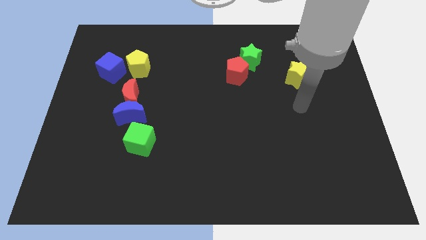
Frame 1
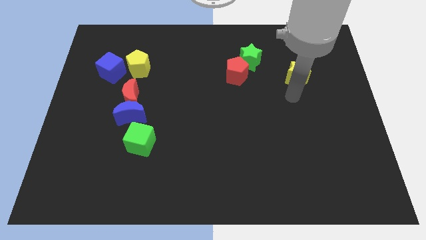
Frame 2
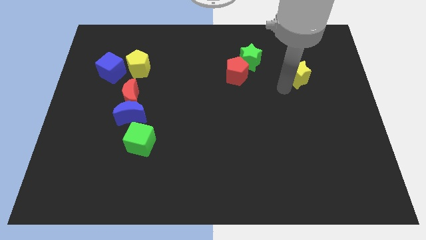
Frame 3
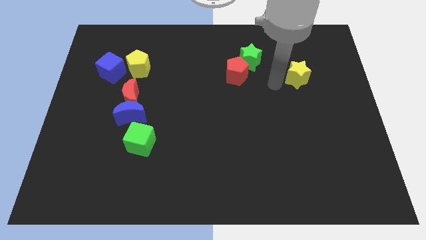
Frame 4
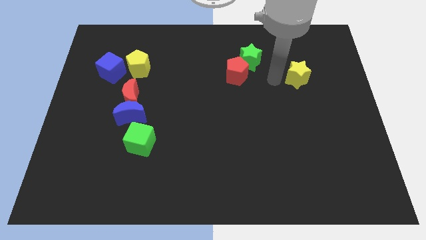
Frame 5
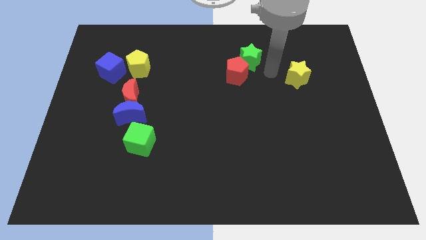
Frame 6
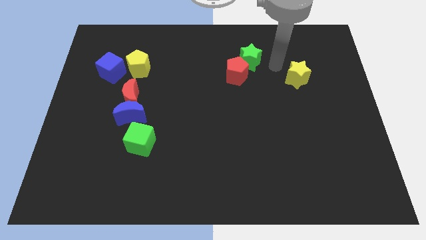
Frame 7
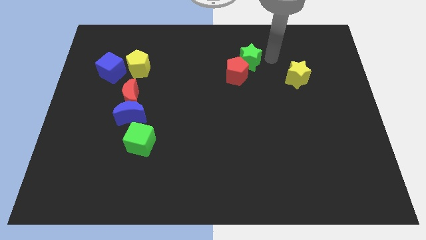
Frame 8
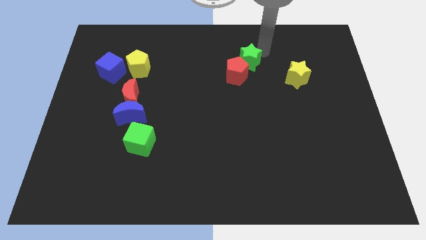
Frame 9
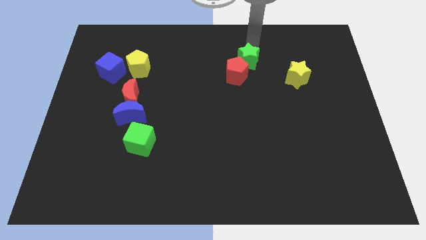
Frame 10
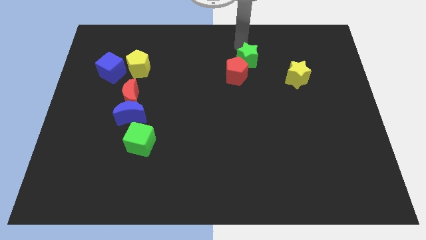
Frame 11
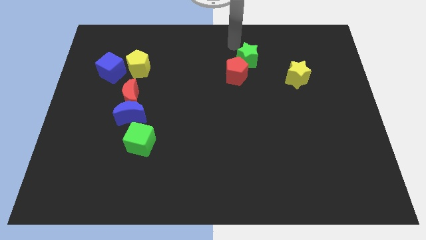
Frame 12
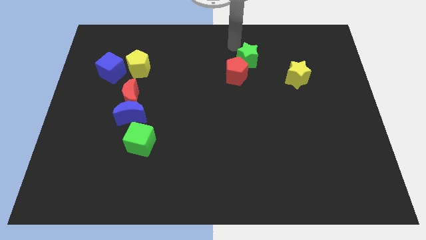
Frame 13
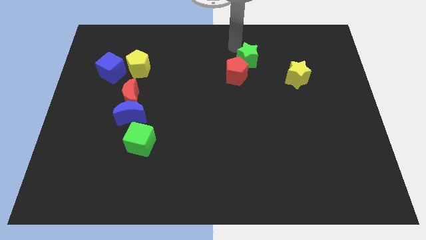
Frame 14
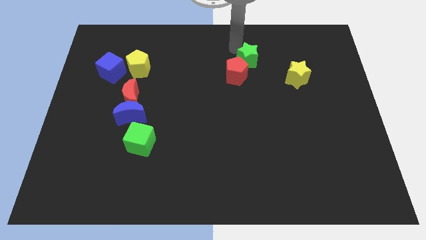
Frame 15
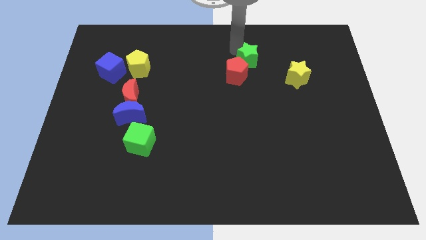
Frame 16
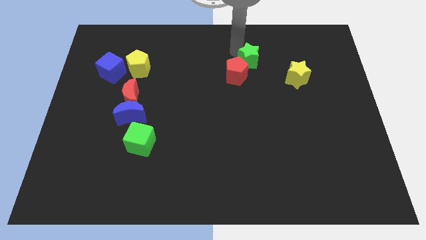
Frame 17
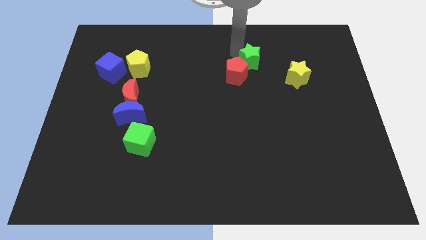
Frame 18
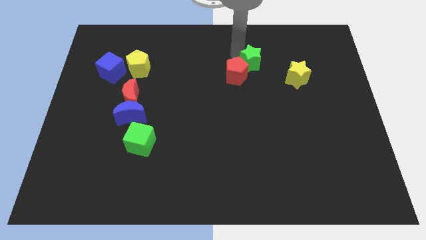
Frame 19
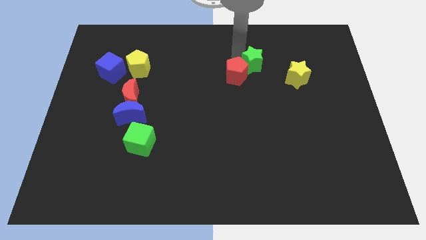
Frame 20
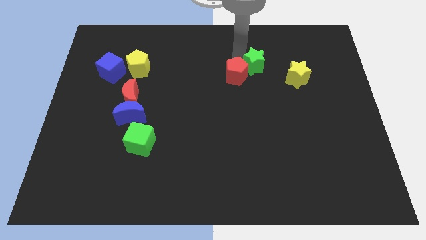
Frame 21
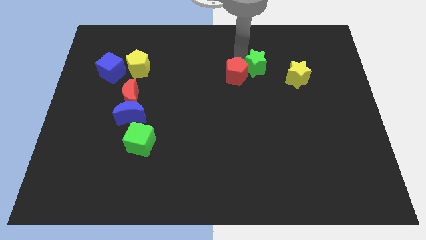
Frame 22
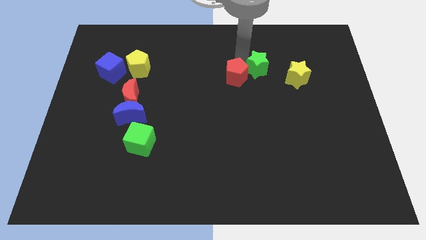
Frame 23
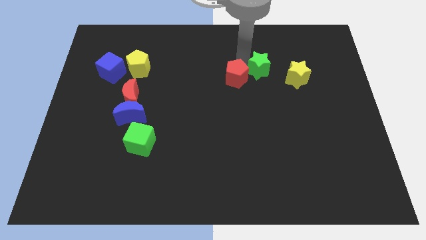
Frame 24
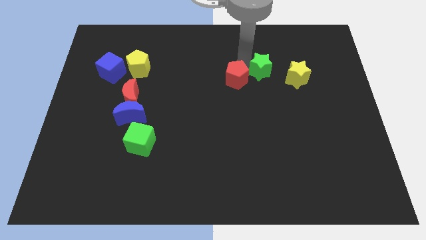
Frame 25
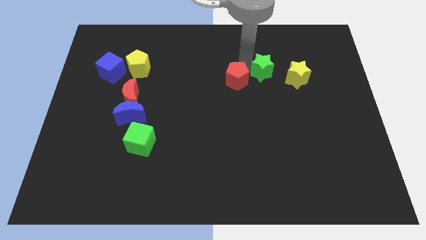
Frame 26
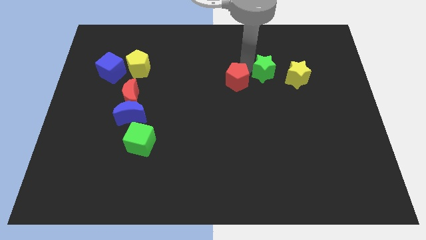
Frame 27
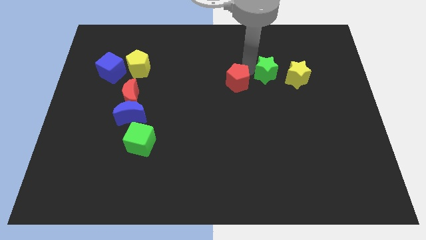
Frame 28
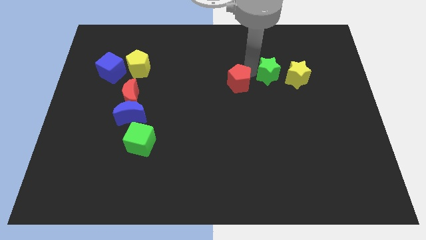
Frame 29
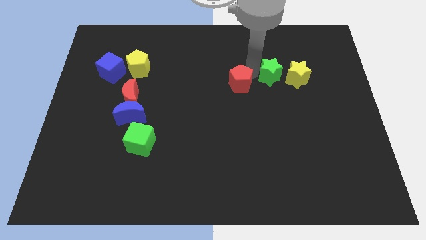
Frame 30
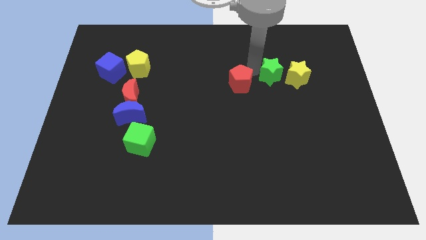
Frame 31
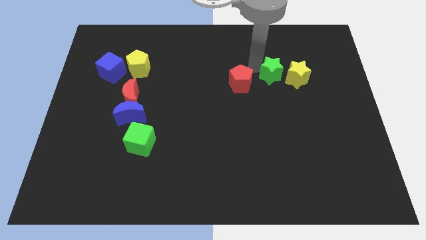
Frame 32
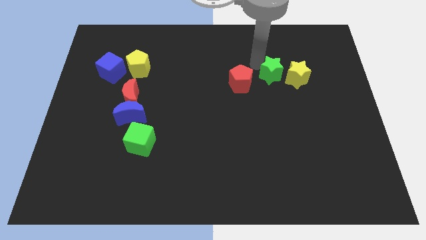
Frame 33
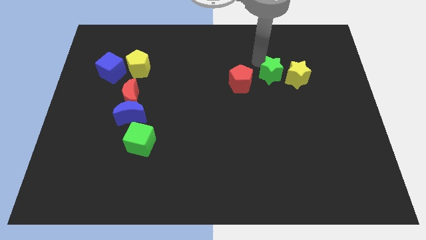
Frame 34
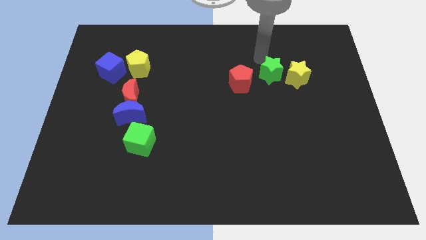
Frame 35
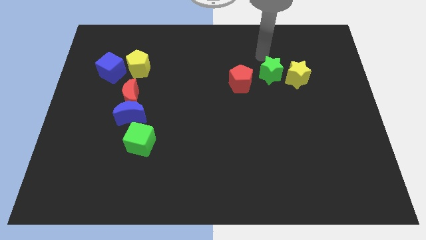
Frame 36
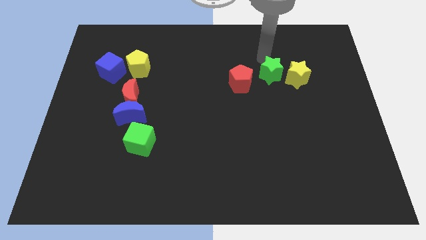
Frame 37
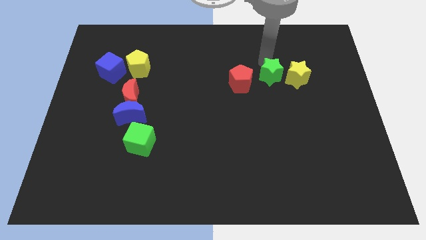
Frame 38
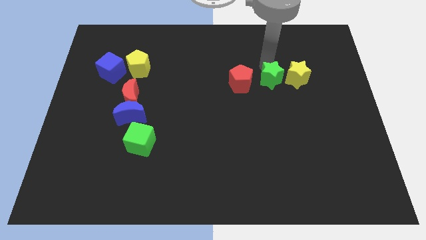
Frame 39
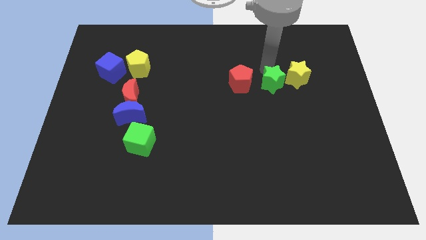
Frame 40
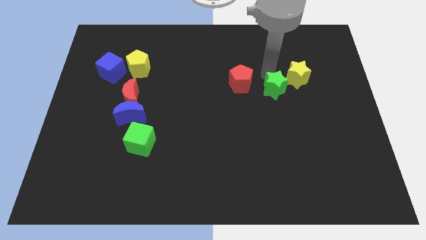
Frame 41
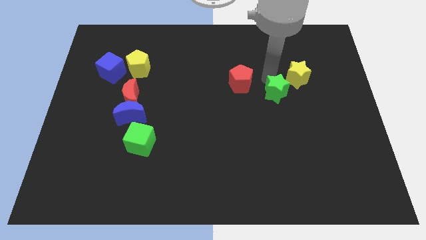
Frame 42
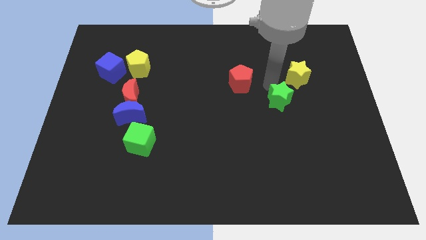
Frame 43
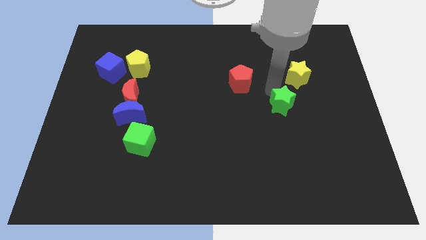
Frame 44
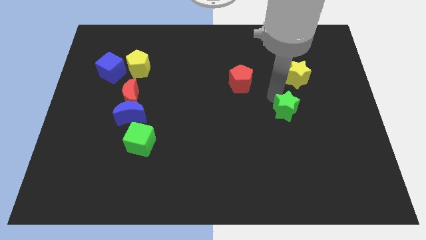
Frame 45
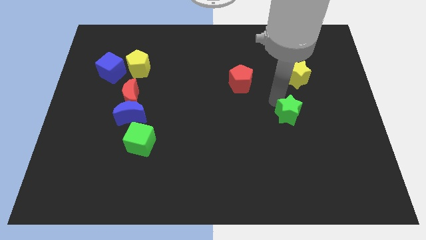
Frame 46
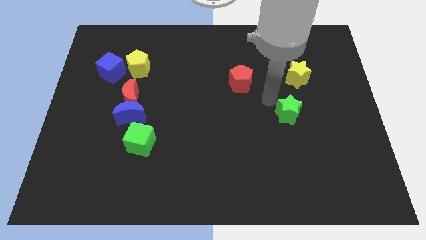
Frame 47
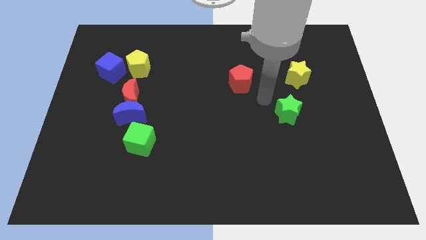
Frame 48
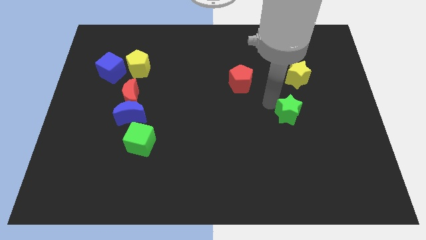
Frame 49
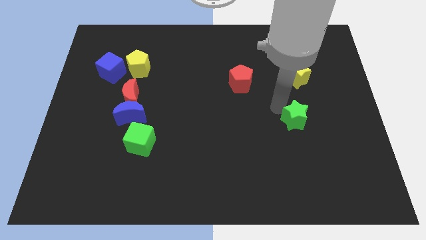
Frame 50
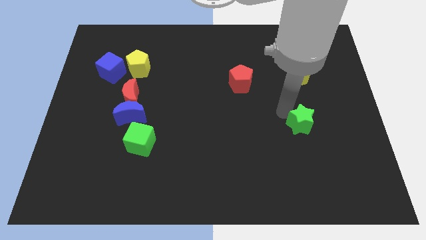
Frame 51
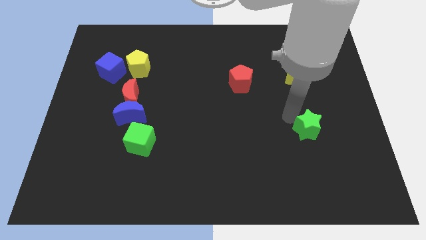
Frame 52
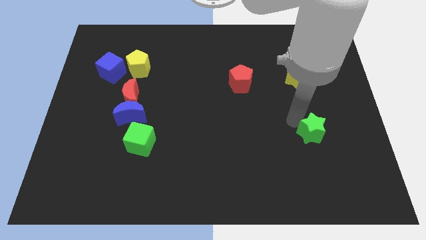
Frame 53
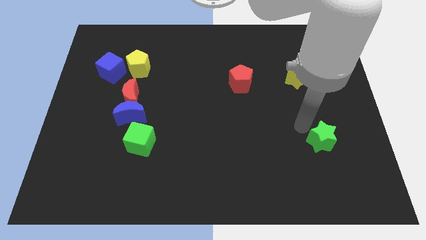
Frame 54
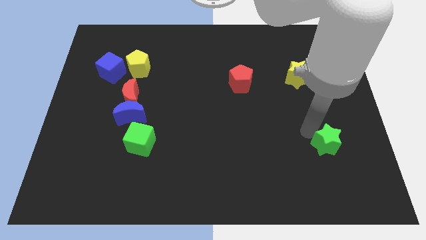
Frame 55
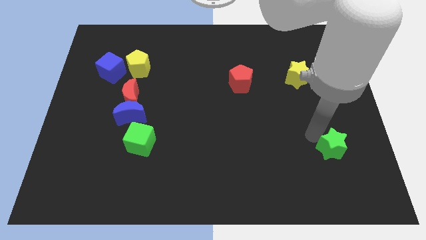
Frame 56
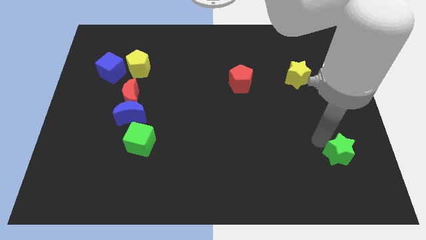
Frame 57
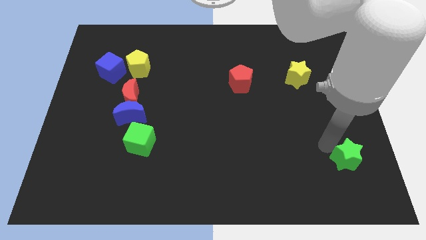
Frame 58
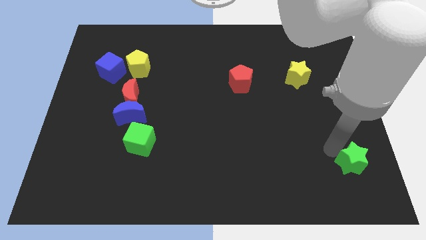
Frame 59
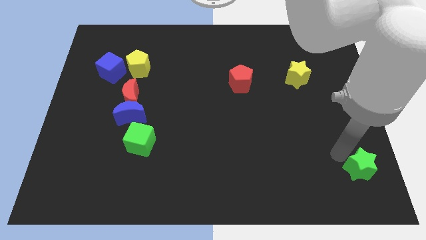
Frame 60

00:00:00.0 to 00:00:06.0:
move the green star to the bottom right

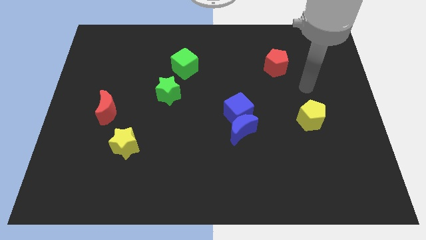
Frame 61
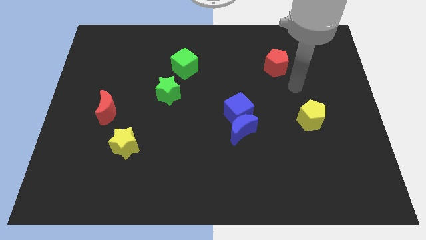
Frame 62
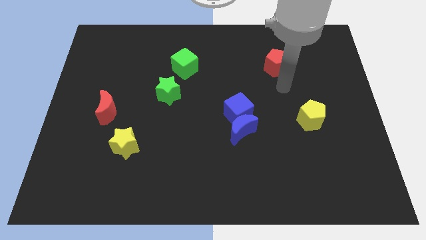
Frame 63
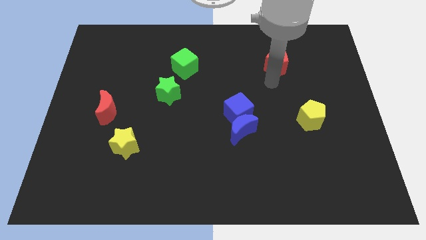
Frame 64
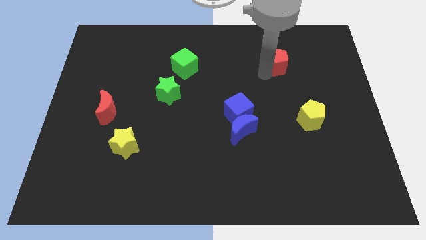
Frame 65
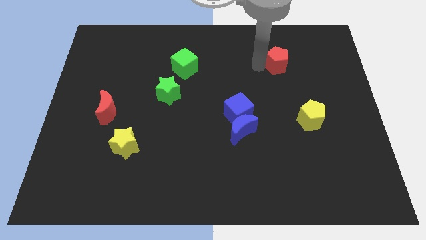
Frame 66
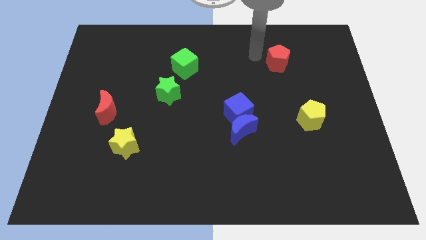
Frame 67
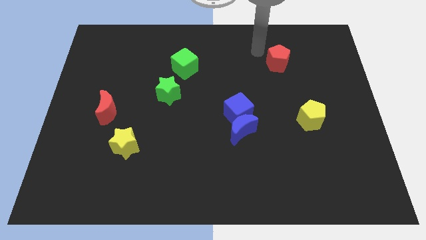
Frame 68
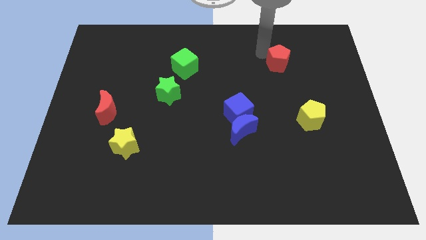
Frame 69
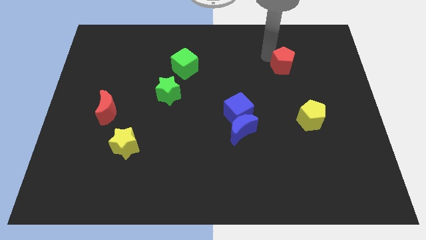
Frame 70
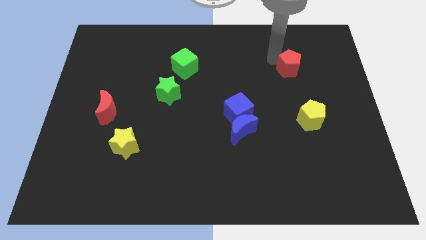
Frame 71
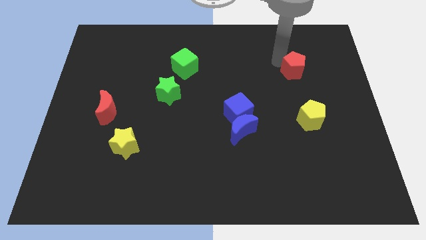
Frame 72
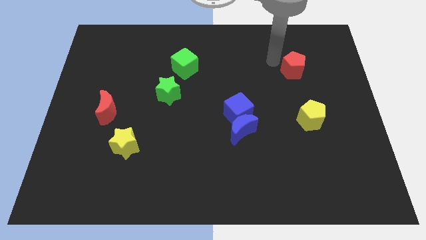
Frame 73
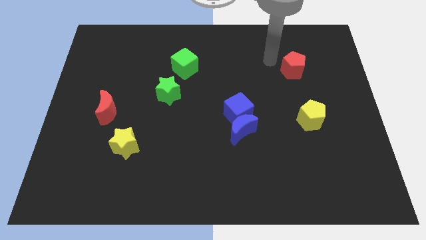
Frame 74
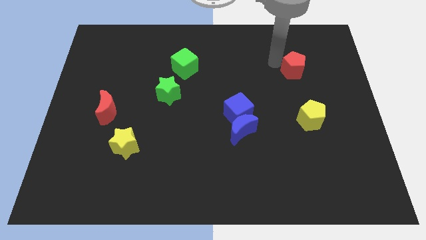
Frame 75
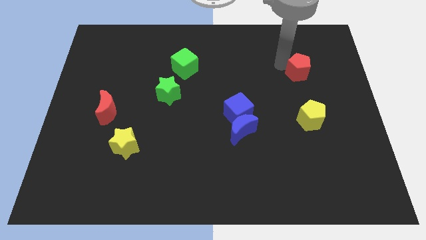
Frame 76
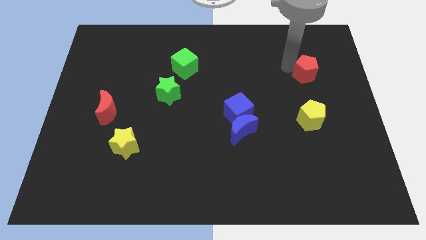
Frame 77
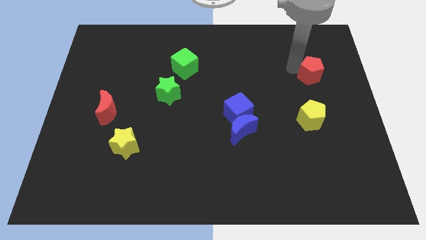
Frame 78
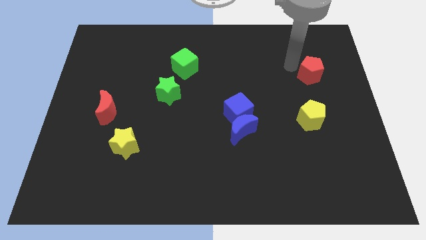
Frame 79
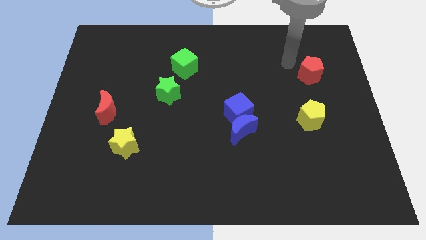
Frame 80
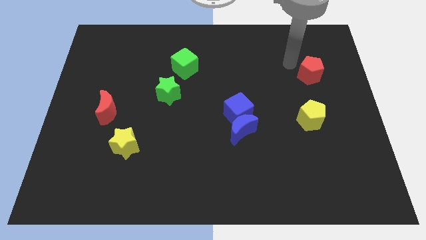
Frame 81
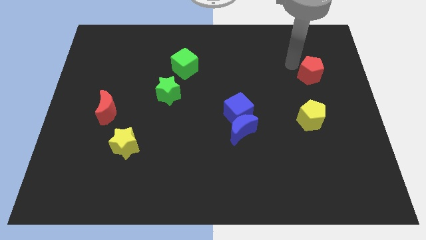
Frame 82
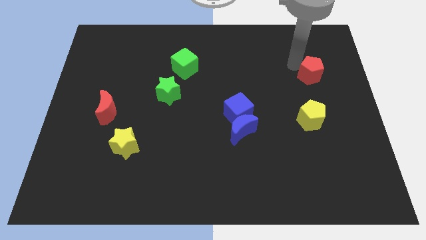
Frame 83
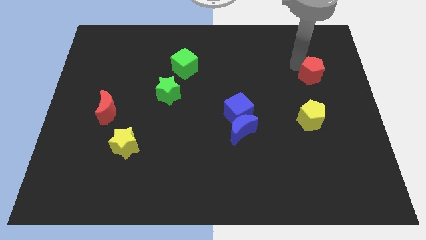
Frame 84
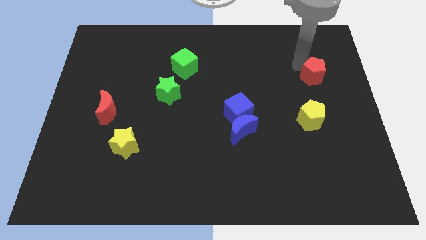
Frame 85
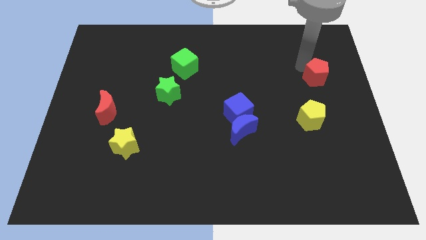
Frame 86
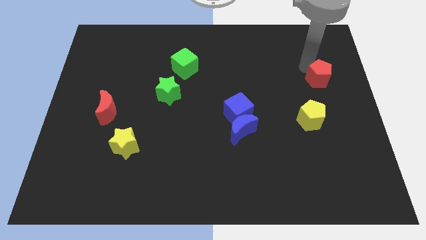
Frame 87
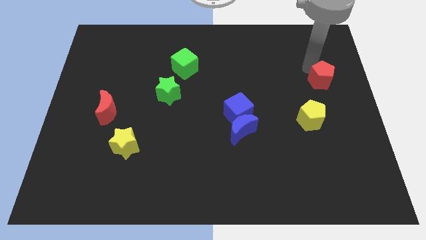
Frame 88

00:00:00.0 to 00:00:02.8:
put the red pentagon to the center right
